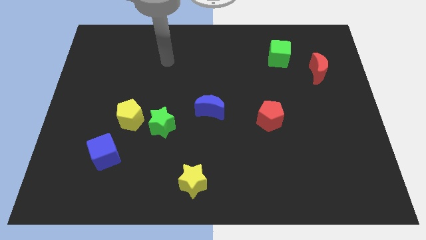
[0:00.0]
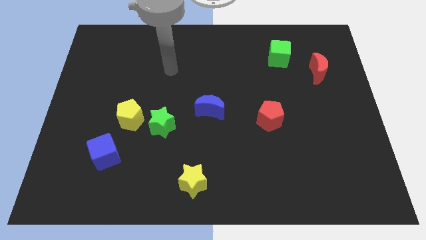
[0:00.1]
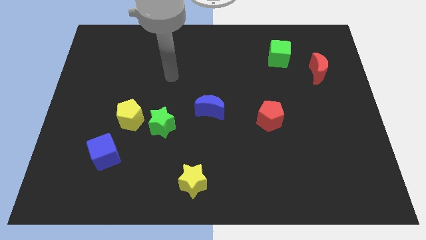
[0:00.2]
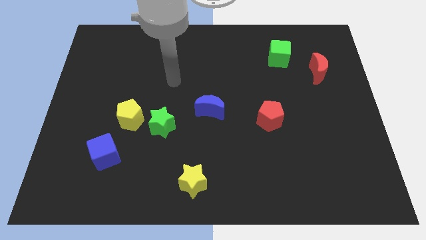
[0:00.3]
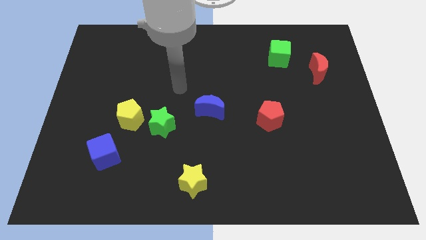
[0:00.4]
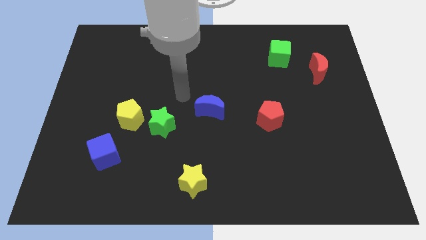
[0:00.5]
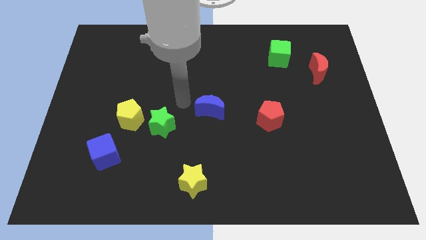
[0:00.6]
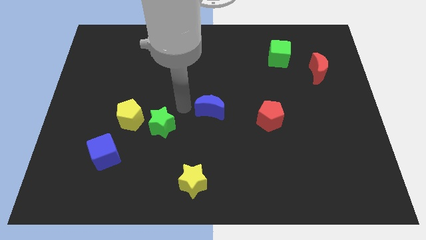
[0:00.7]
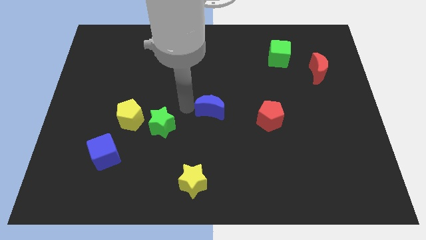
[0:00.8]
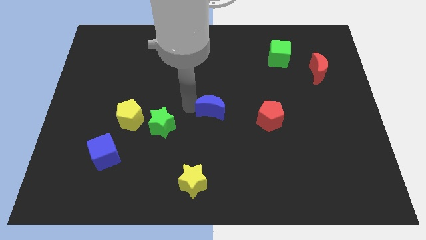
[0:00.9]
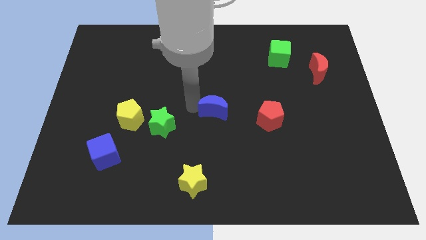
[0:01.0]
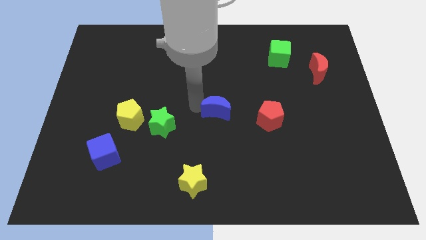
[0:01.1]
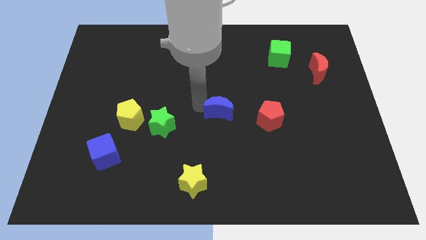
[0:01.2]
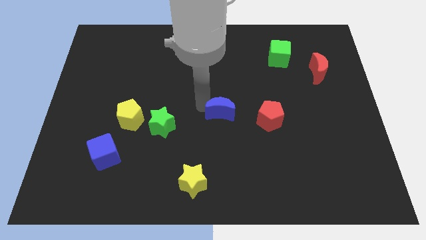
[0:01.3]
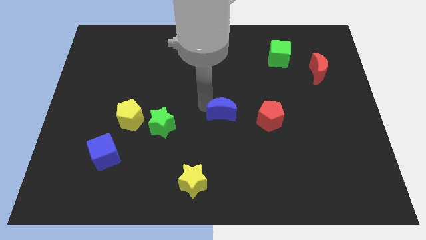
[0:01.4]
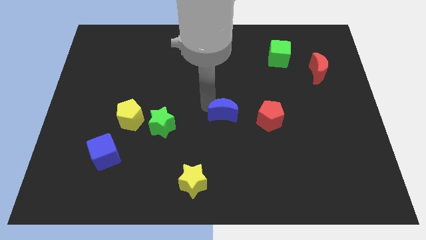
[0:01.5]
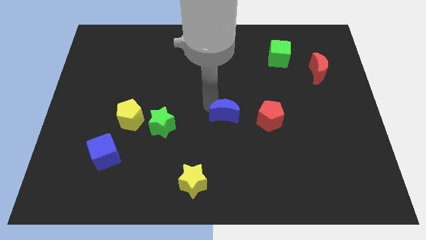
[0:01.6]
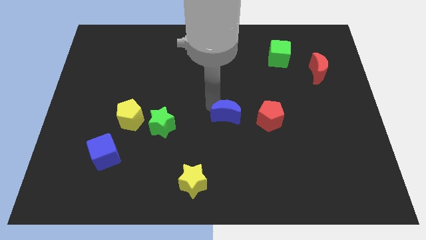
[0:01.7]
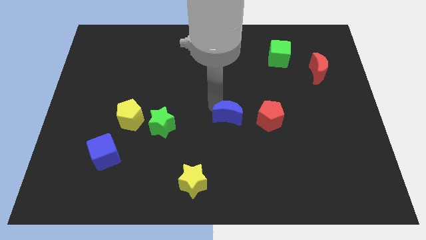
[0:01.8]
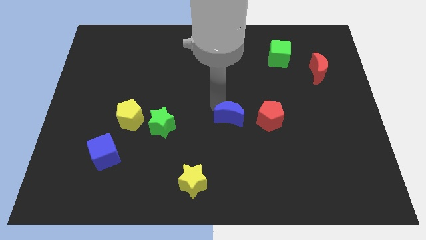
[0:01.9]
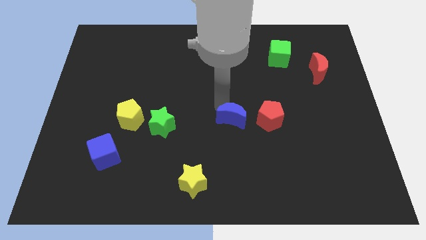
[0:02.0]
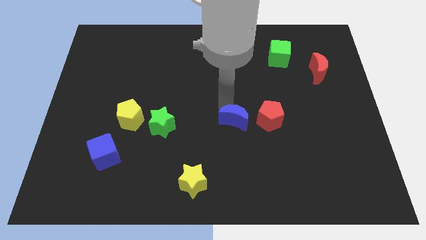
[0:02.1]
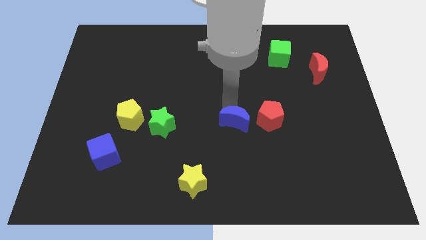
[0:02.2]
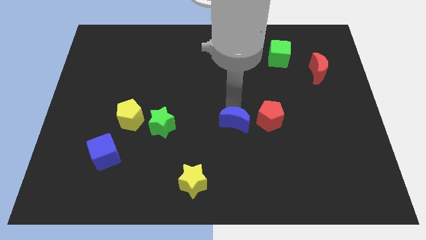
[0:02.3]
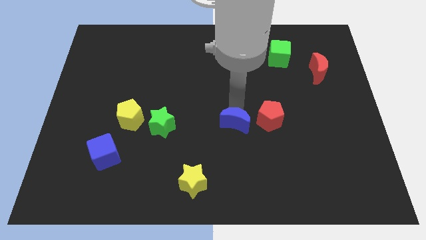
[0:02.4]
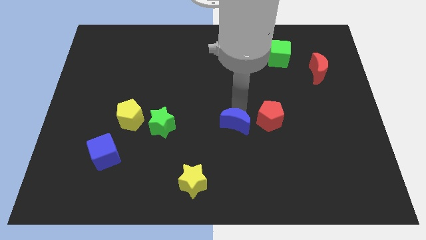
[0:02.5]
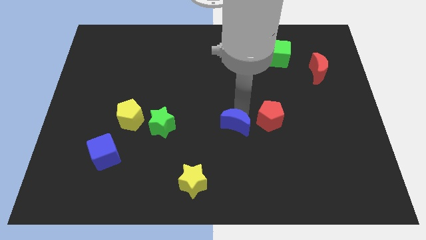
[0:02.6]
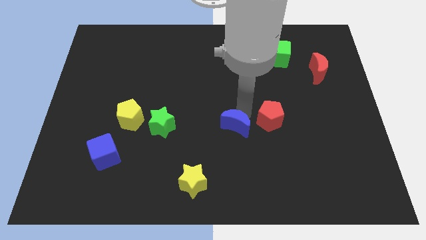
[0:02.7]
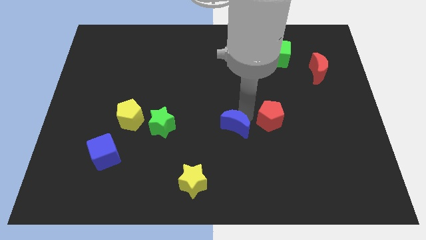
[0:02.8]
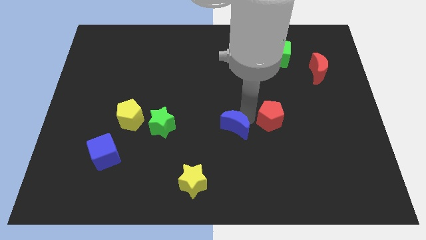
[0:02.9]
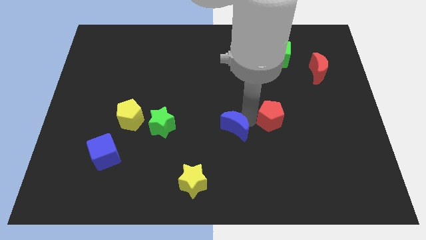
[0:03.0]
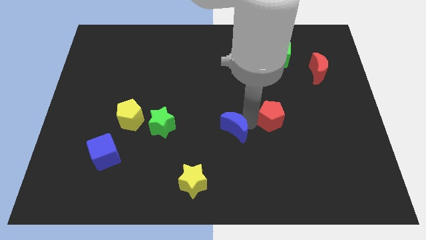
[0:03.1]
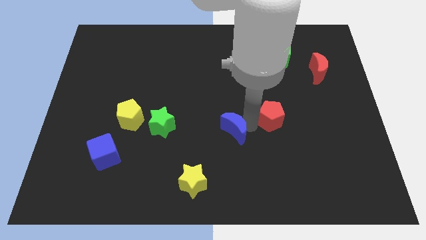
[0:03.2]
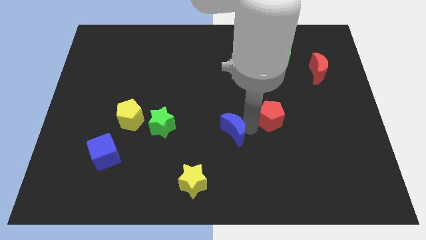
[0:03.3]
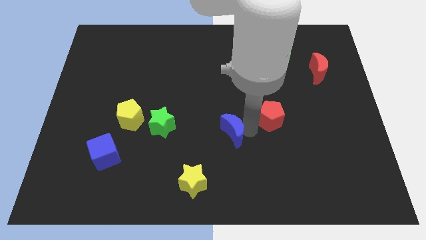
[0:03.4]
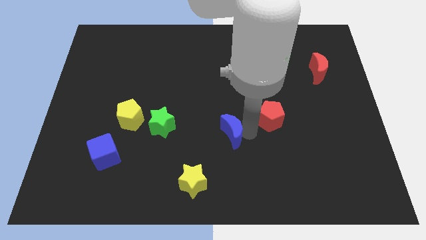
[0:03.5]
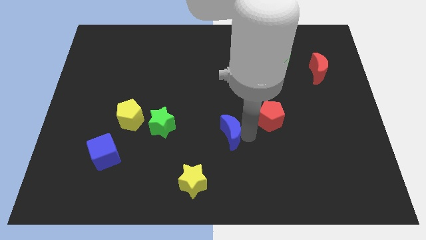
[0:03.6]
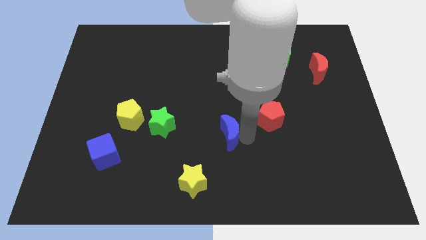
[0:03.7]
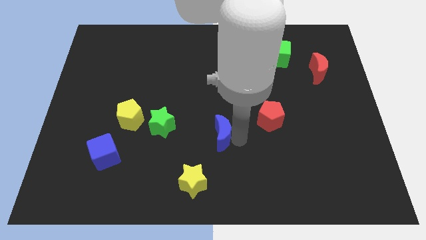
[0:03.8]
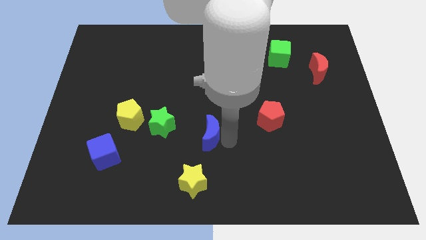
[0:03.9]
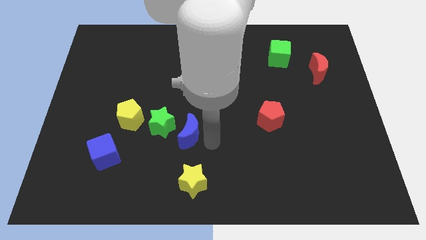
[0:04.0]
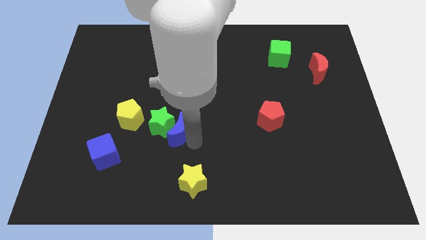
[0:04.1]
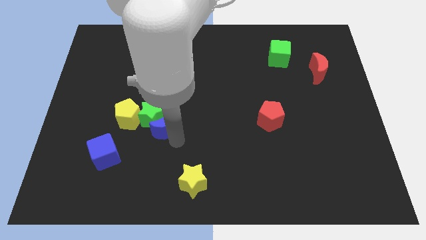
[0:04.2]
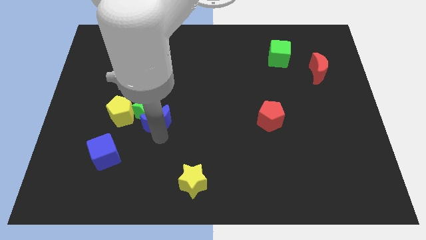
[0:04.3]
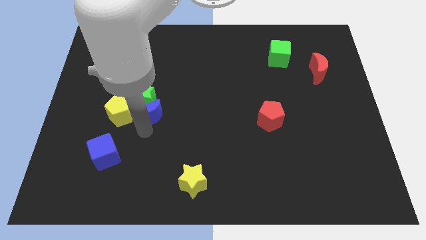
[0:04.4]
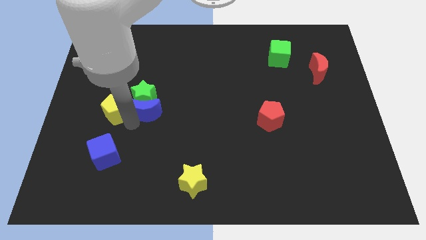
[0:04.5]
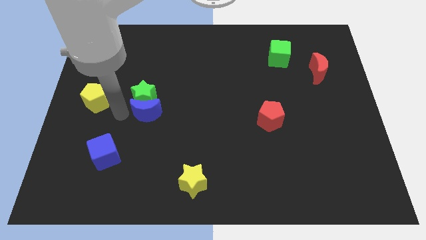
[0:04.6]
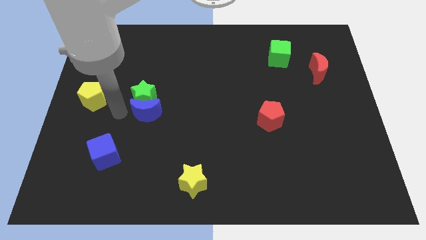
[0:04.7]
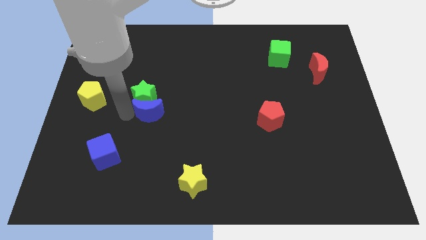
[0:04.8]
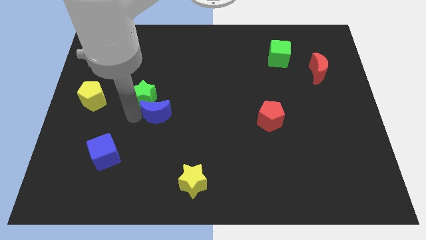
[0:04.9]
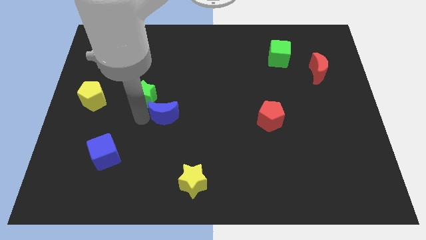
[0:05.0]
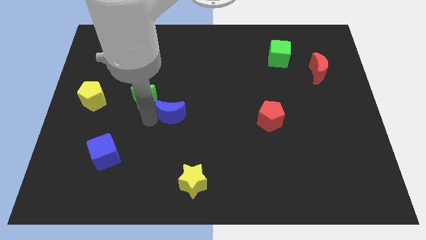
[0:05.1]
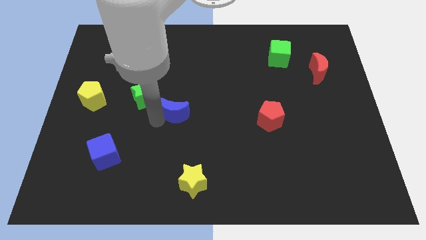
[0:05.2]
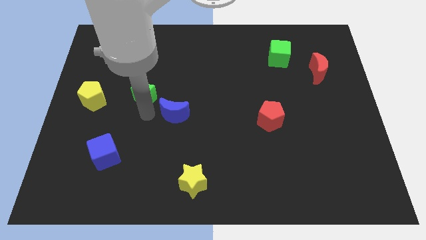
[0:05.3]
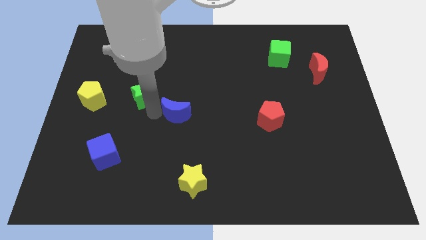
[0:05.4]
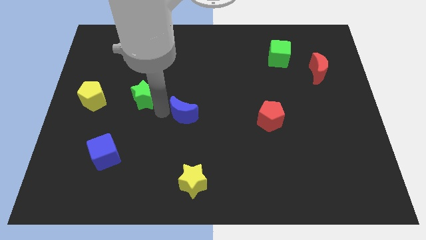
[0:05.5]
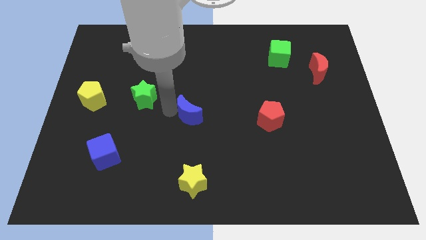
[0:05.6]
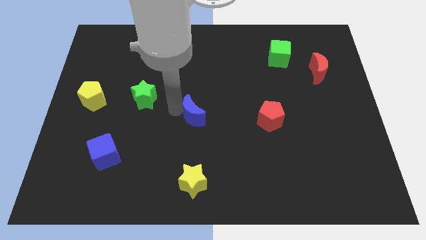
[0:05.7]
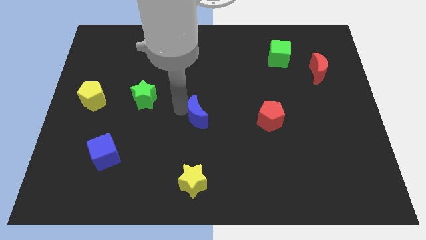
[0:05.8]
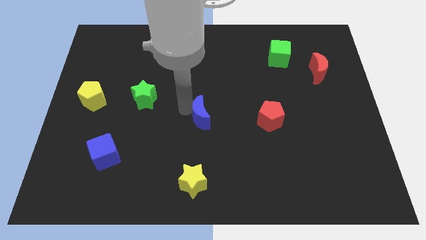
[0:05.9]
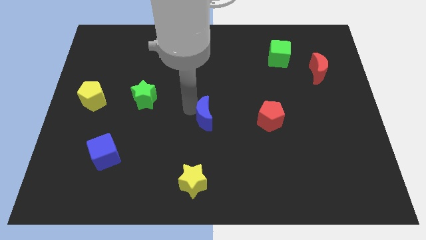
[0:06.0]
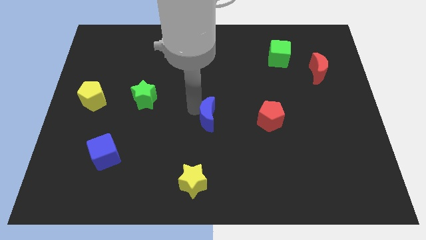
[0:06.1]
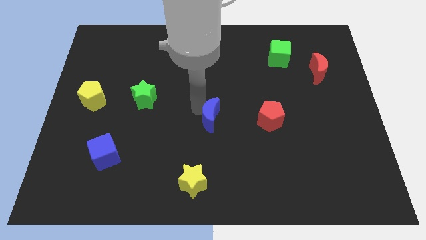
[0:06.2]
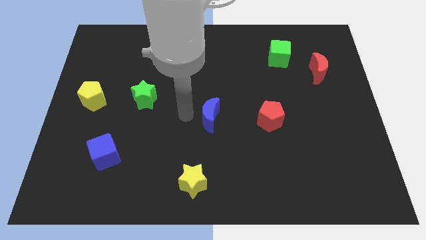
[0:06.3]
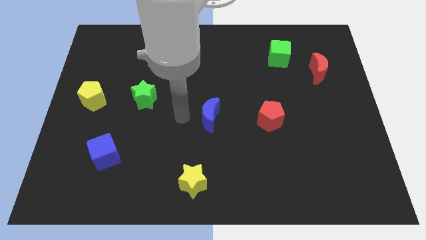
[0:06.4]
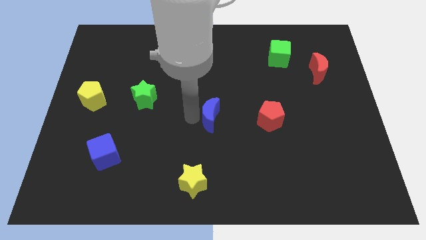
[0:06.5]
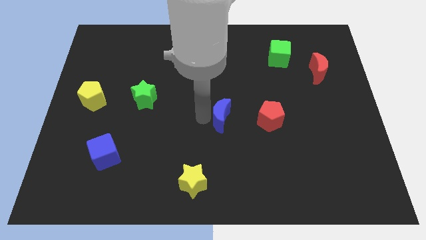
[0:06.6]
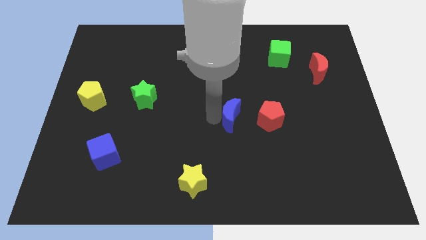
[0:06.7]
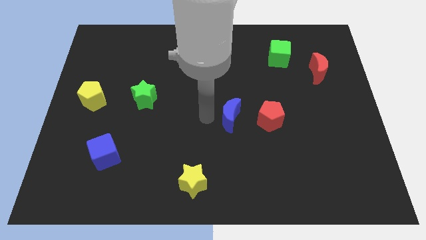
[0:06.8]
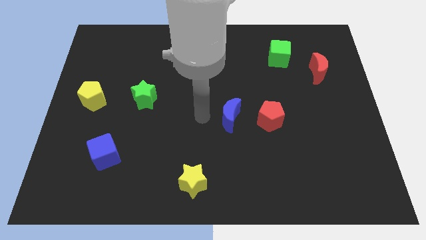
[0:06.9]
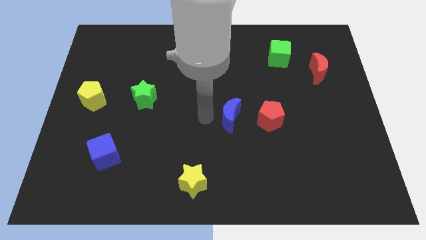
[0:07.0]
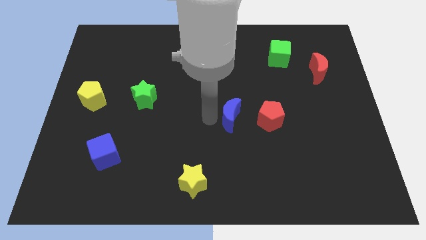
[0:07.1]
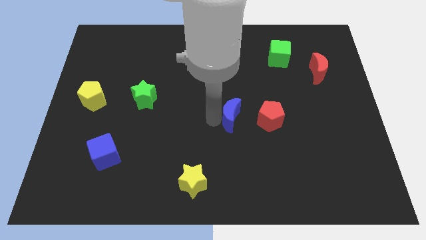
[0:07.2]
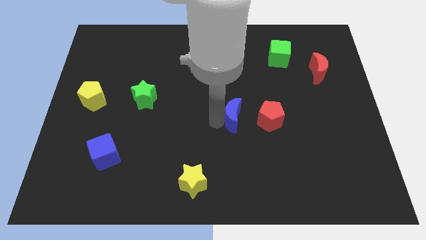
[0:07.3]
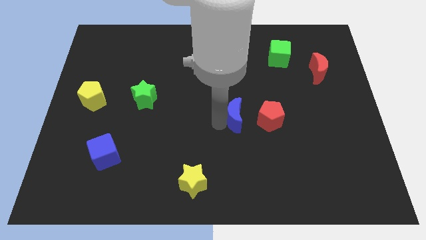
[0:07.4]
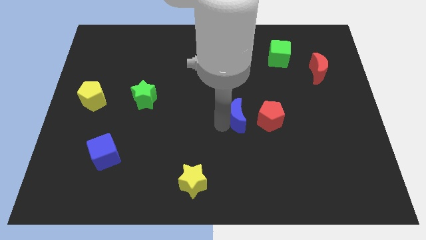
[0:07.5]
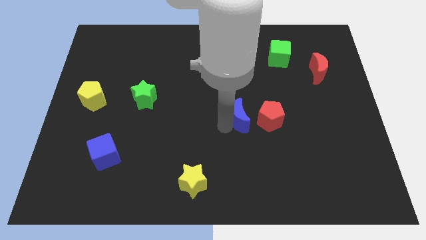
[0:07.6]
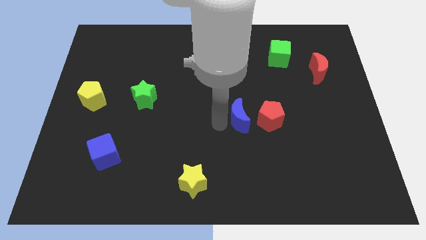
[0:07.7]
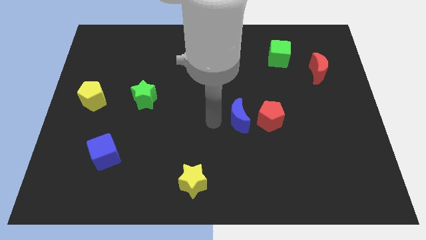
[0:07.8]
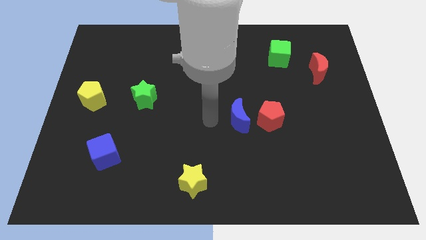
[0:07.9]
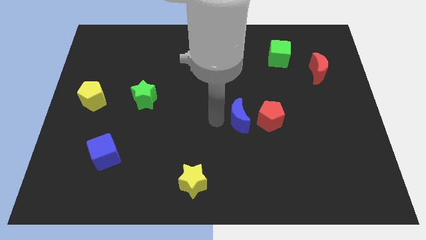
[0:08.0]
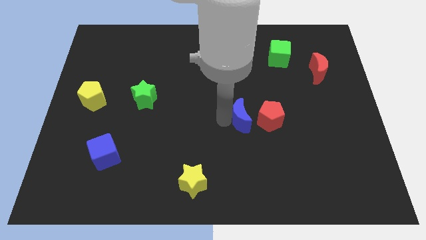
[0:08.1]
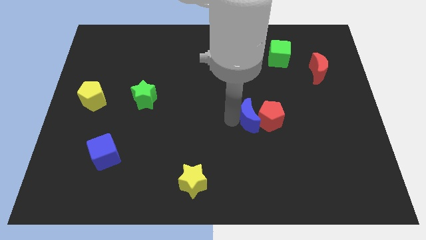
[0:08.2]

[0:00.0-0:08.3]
put the blue moon towards the red pentagon
